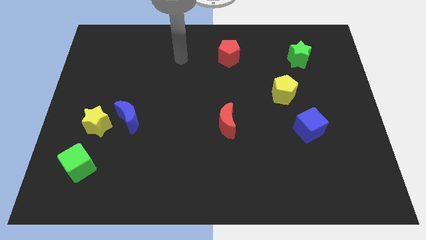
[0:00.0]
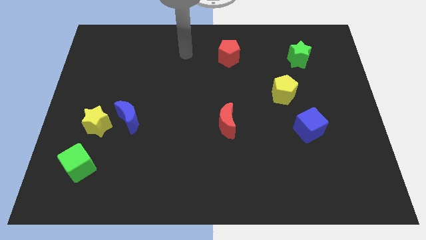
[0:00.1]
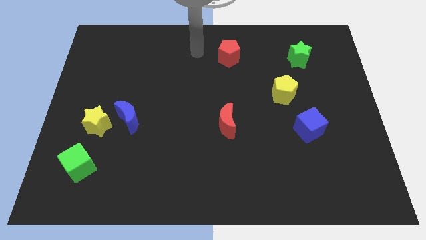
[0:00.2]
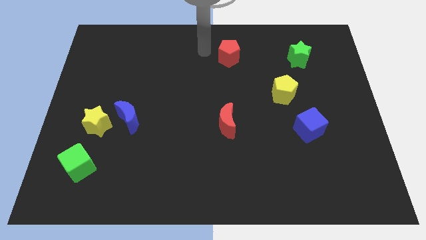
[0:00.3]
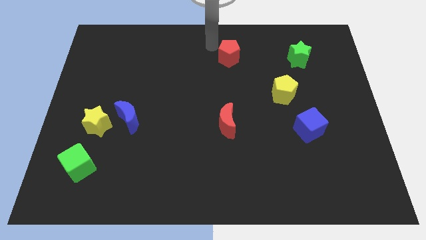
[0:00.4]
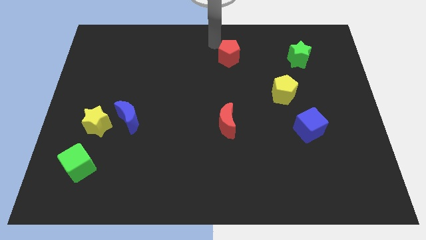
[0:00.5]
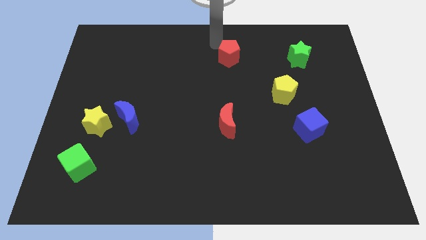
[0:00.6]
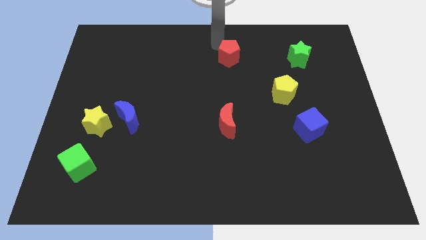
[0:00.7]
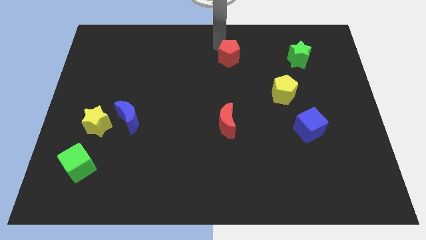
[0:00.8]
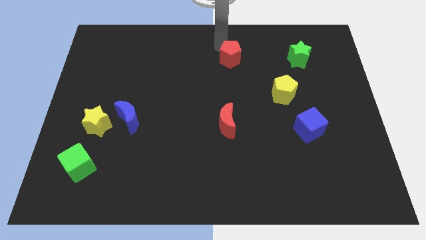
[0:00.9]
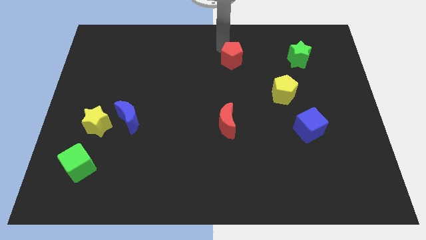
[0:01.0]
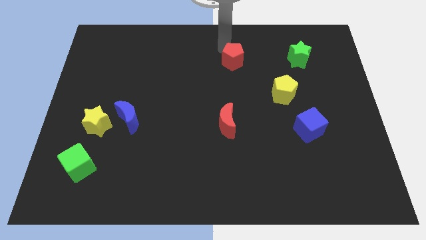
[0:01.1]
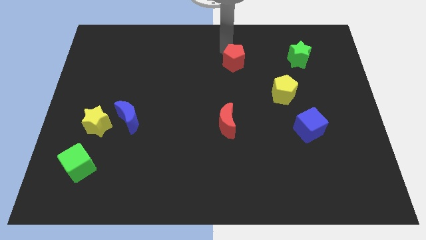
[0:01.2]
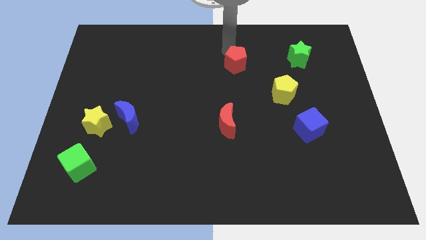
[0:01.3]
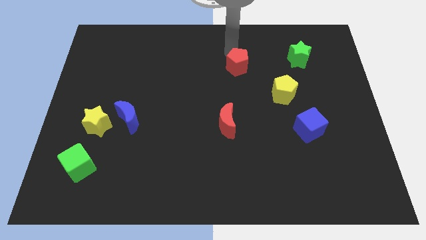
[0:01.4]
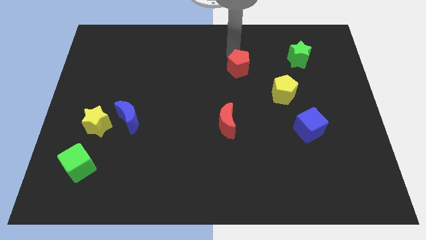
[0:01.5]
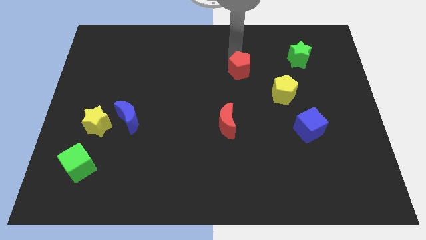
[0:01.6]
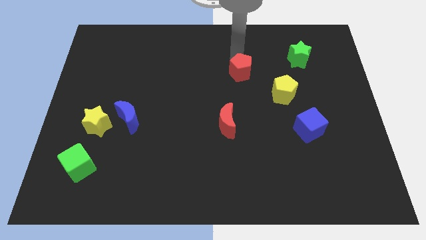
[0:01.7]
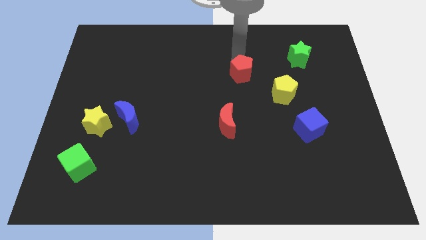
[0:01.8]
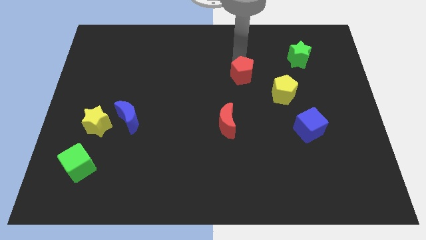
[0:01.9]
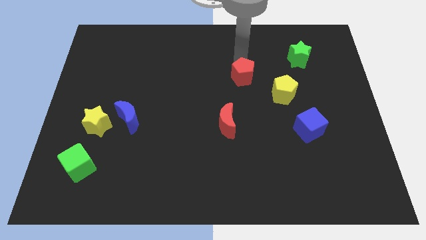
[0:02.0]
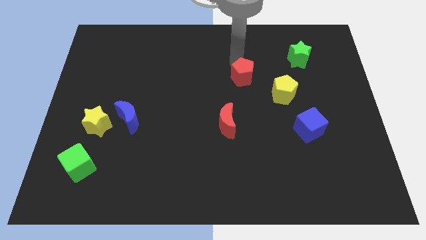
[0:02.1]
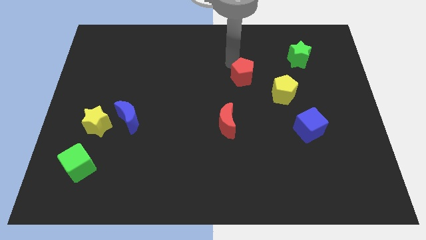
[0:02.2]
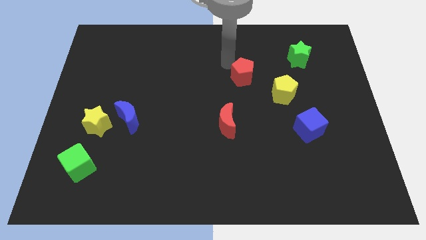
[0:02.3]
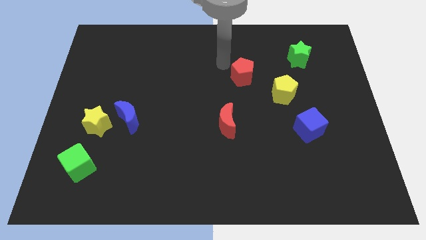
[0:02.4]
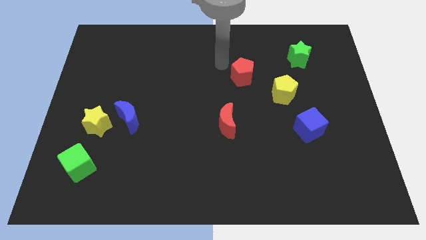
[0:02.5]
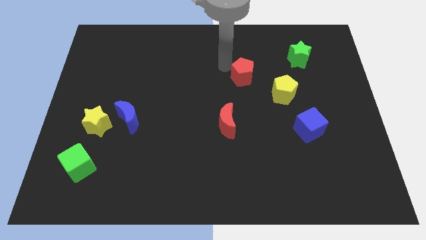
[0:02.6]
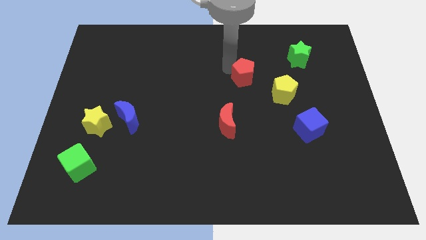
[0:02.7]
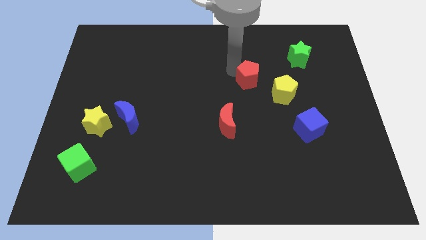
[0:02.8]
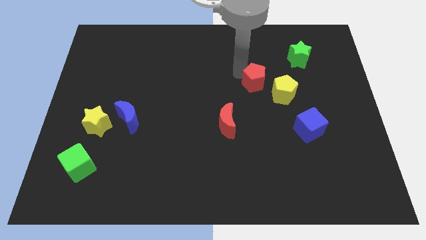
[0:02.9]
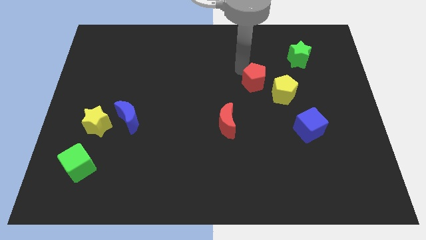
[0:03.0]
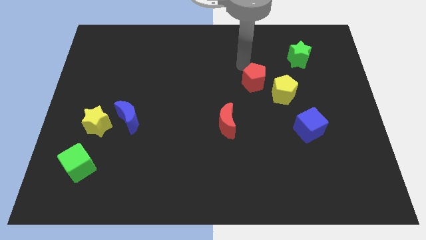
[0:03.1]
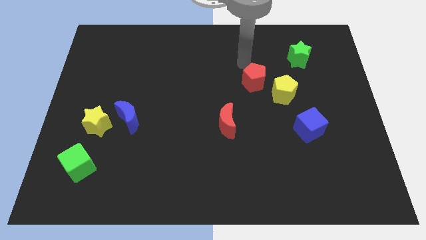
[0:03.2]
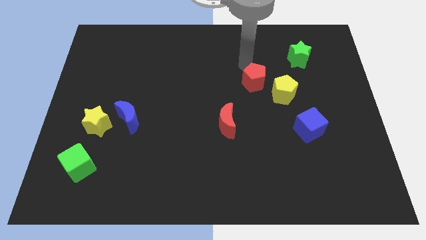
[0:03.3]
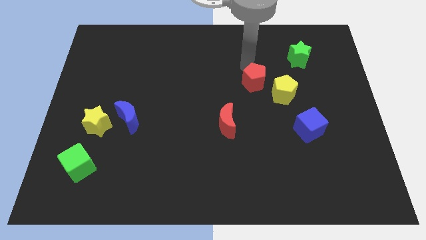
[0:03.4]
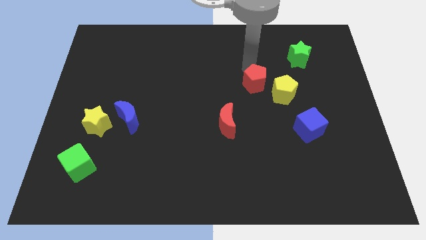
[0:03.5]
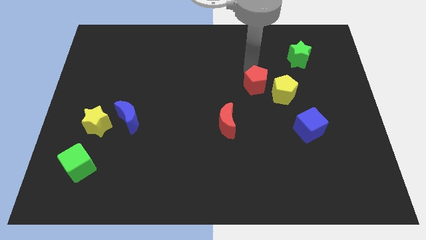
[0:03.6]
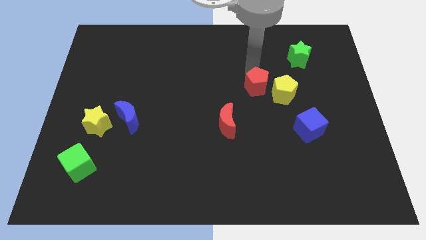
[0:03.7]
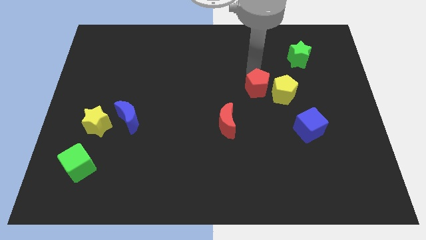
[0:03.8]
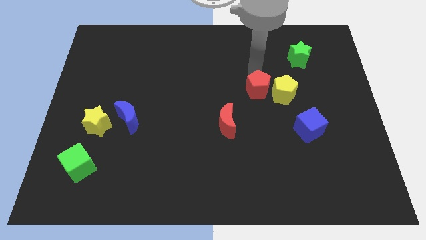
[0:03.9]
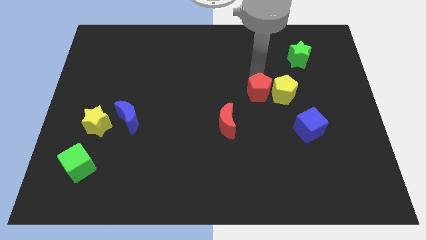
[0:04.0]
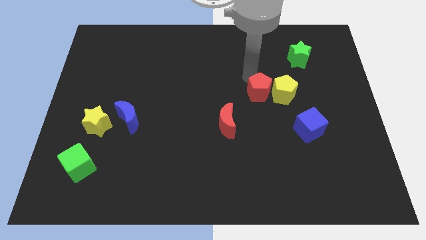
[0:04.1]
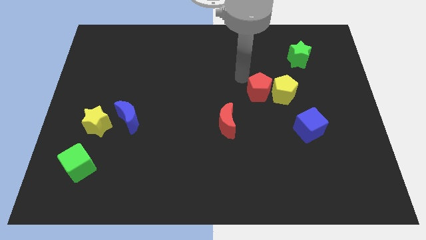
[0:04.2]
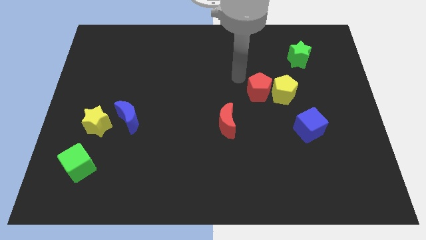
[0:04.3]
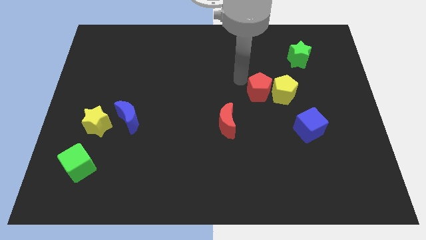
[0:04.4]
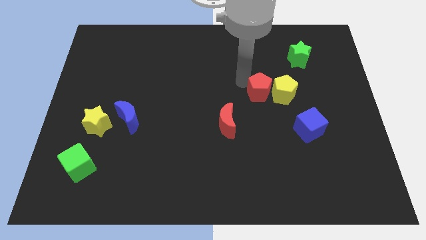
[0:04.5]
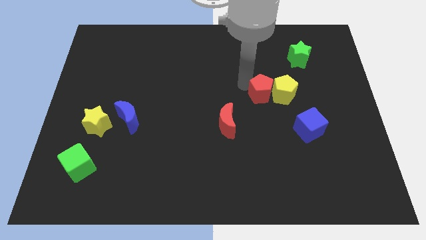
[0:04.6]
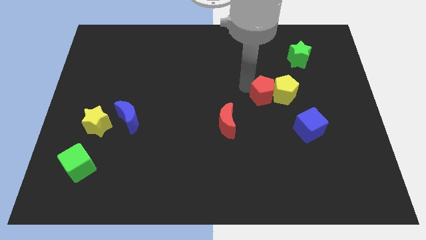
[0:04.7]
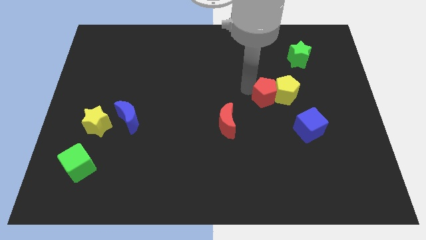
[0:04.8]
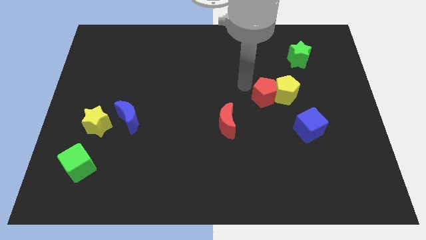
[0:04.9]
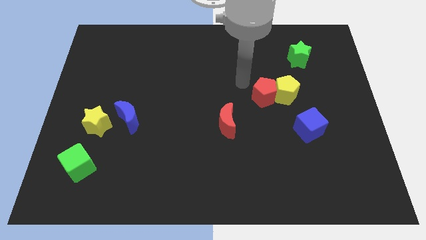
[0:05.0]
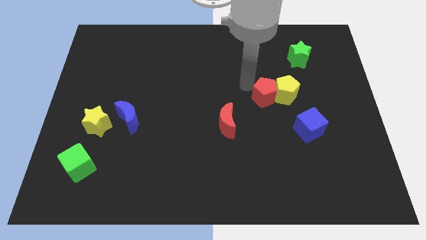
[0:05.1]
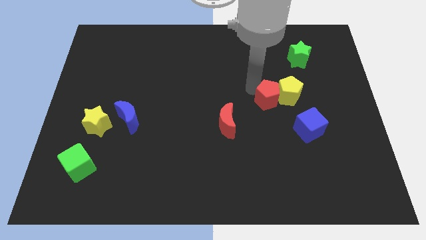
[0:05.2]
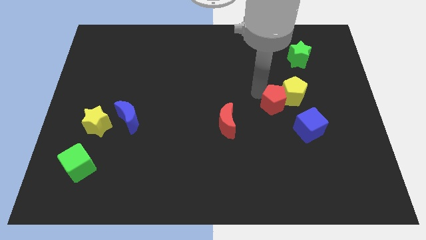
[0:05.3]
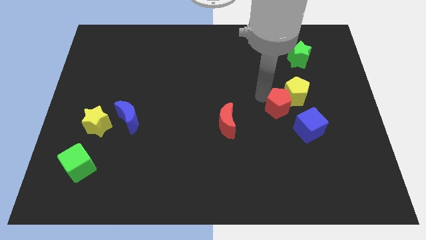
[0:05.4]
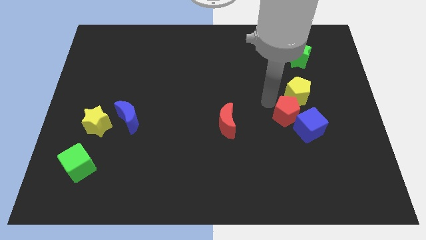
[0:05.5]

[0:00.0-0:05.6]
slide the red pentagon down and to the right diagonally

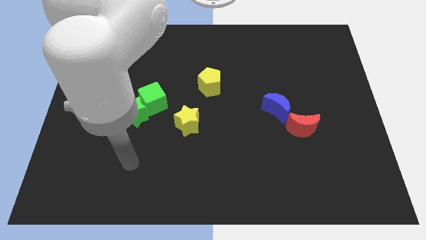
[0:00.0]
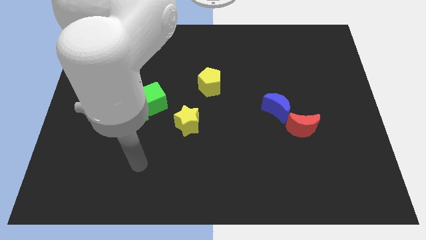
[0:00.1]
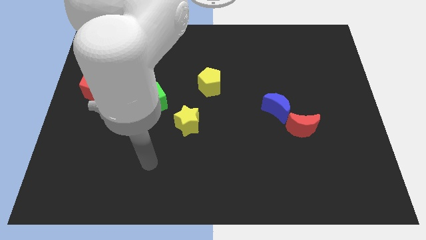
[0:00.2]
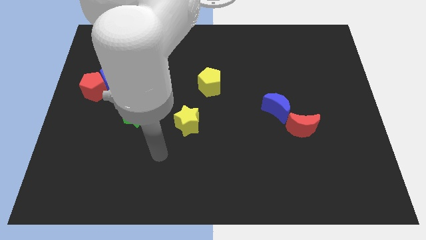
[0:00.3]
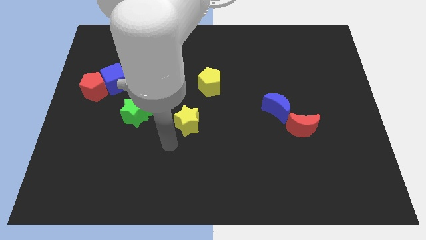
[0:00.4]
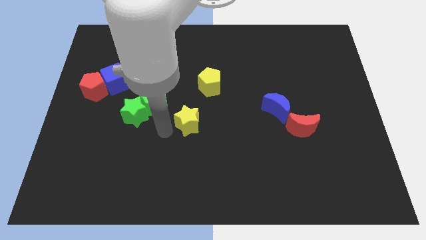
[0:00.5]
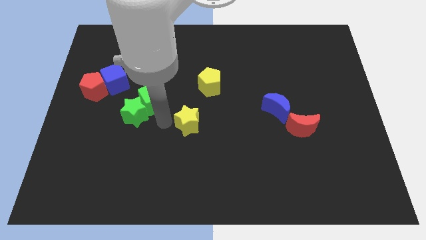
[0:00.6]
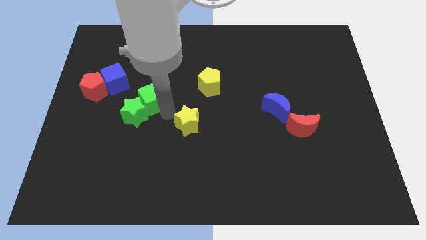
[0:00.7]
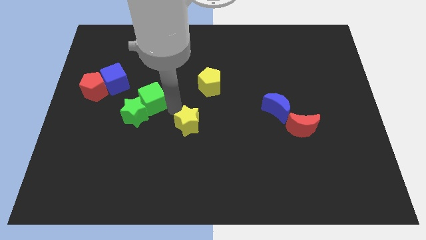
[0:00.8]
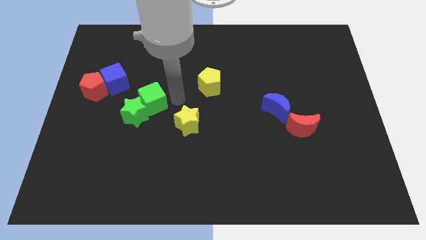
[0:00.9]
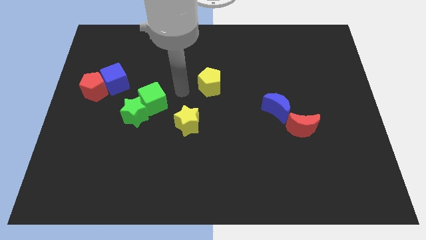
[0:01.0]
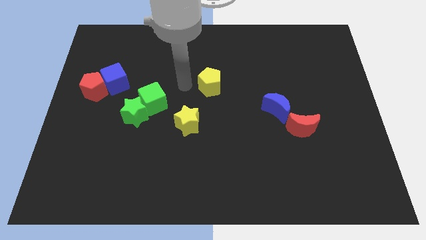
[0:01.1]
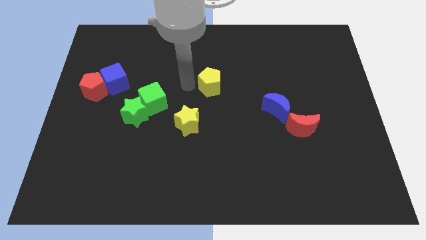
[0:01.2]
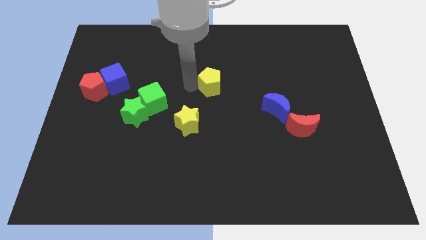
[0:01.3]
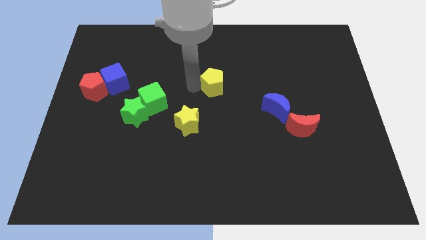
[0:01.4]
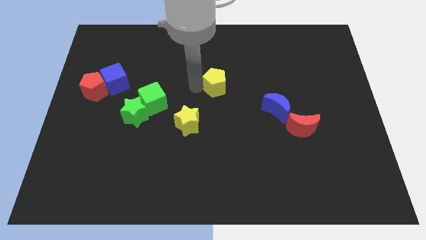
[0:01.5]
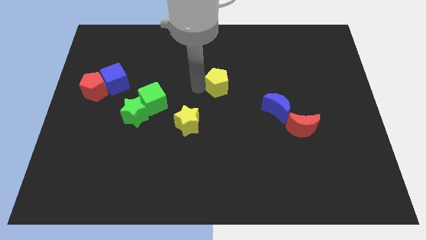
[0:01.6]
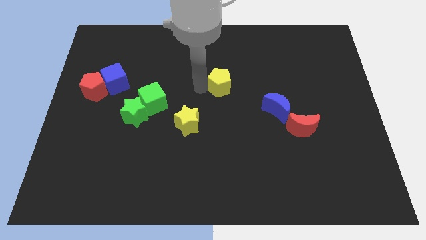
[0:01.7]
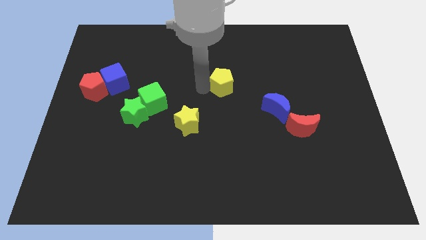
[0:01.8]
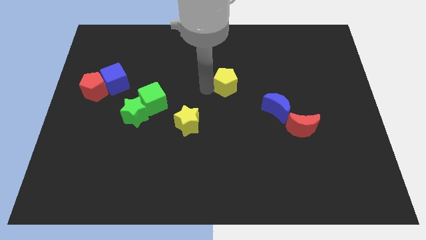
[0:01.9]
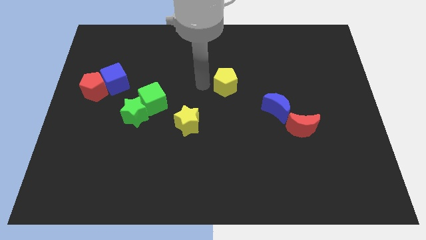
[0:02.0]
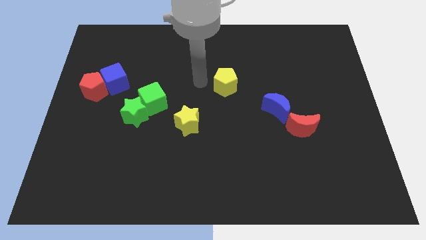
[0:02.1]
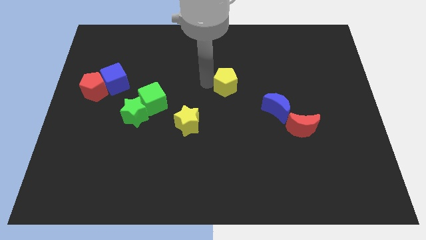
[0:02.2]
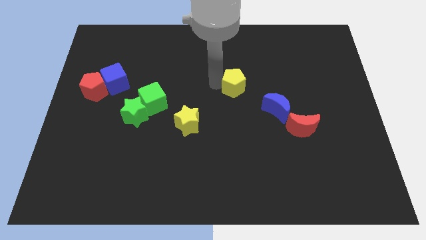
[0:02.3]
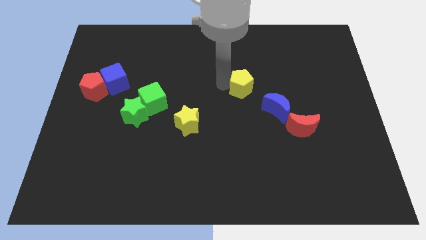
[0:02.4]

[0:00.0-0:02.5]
slightly slide the yellow pentagon right
